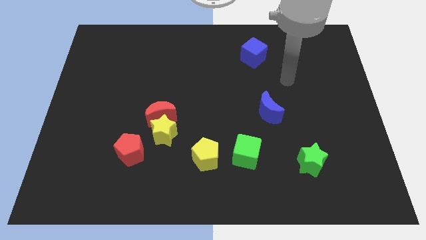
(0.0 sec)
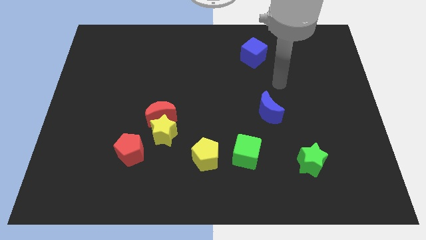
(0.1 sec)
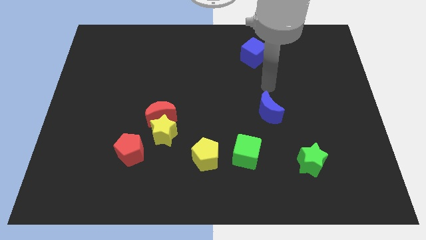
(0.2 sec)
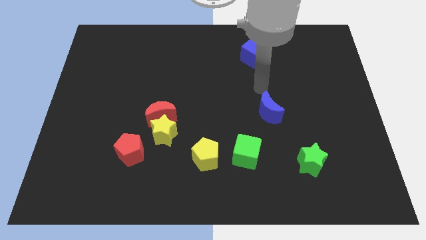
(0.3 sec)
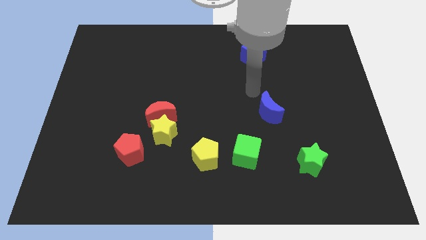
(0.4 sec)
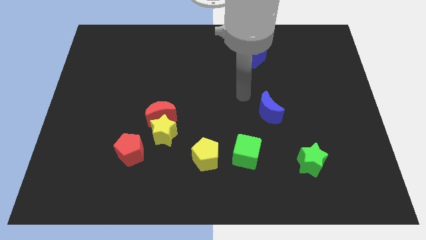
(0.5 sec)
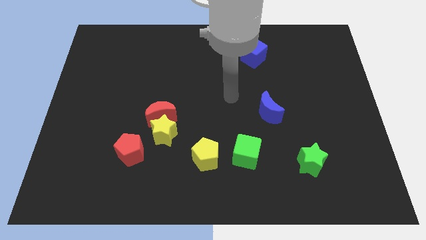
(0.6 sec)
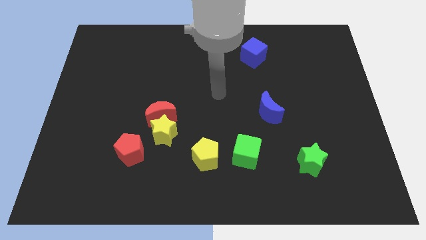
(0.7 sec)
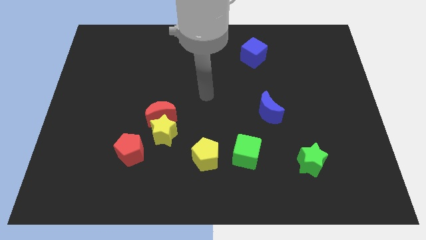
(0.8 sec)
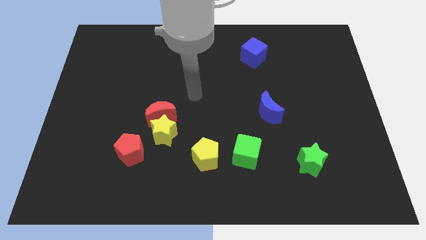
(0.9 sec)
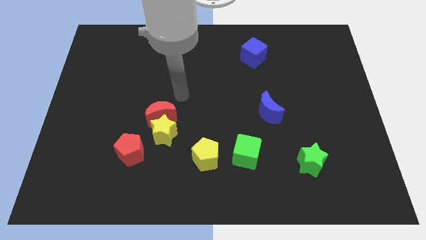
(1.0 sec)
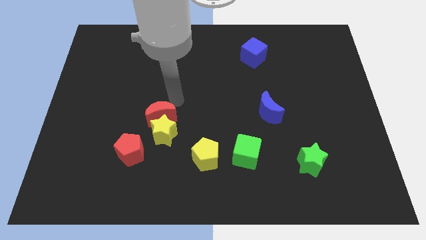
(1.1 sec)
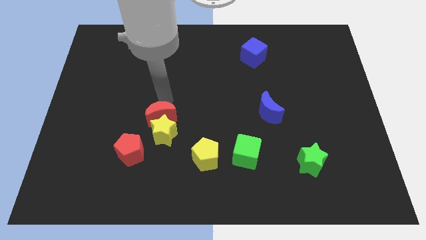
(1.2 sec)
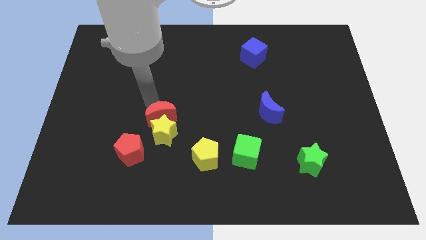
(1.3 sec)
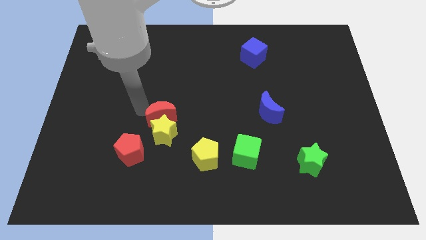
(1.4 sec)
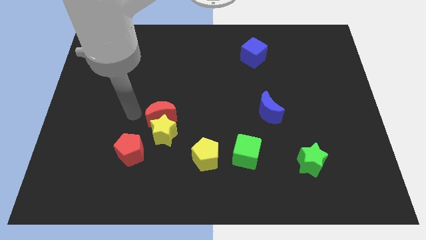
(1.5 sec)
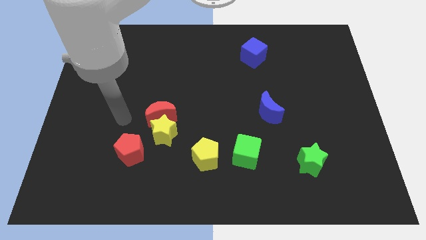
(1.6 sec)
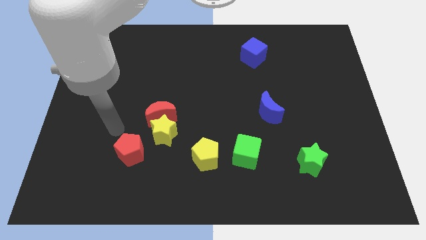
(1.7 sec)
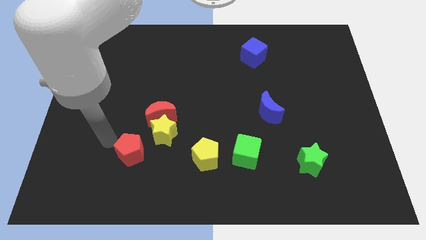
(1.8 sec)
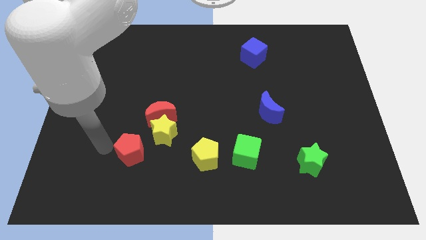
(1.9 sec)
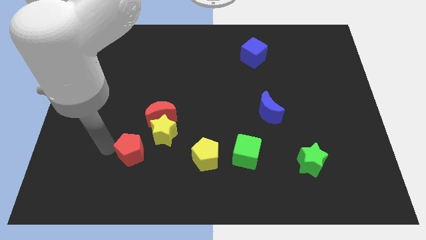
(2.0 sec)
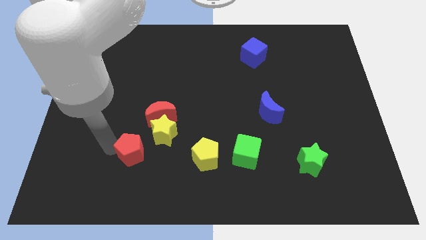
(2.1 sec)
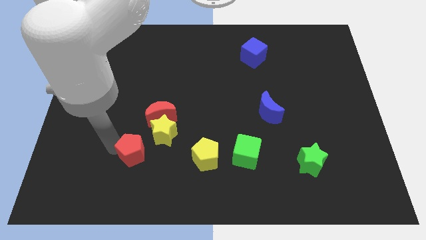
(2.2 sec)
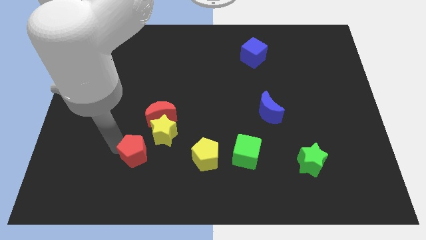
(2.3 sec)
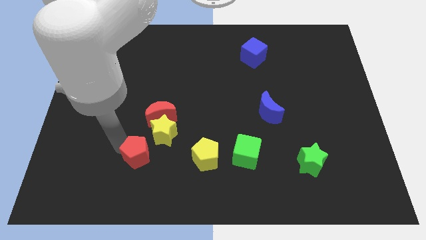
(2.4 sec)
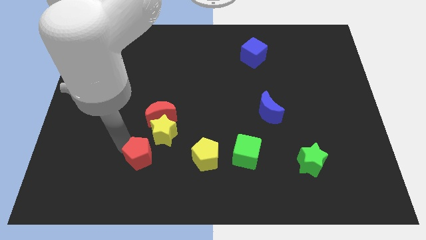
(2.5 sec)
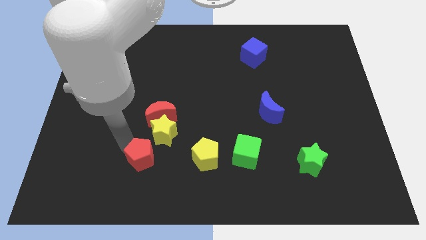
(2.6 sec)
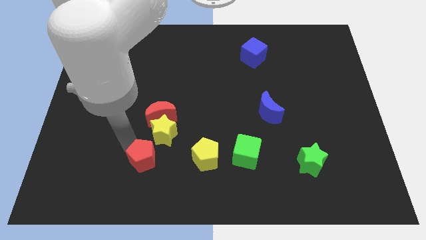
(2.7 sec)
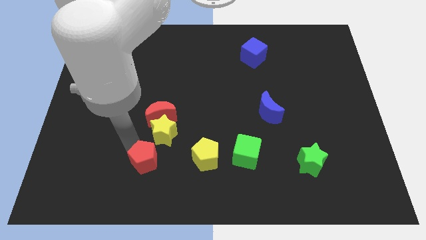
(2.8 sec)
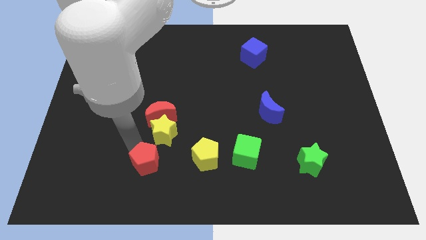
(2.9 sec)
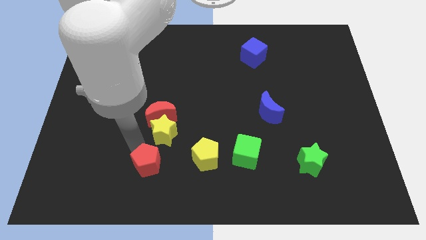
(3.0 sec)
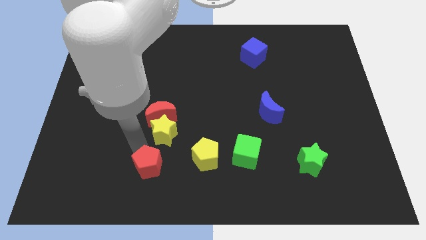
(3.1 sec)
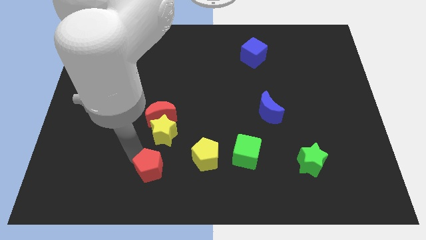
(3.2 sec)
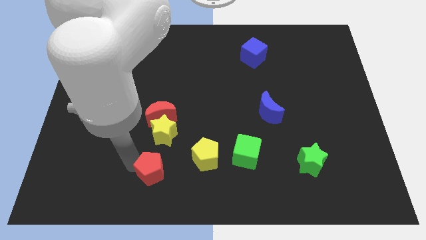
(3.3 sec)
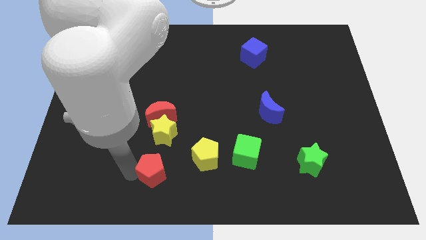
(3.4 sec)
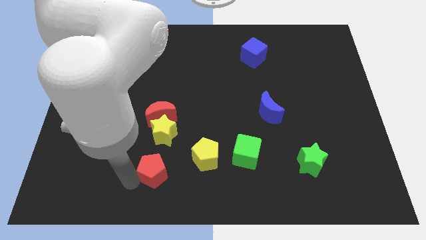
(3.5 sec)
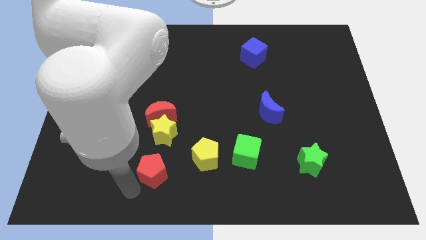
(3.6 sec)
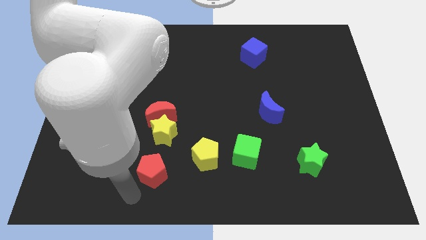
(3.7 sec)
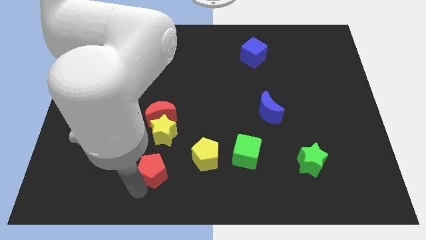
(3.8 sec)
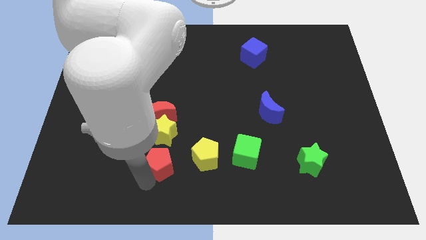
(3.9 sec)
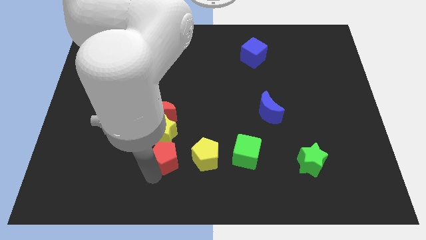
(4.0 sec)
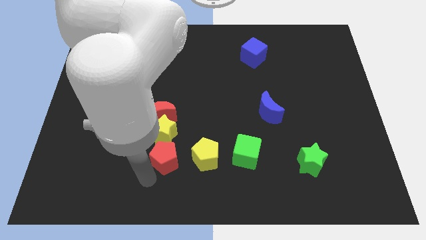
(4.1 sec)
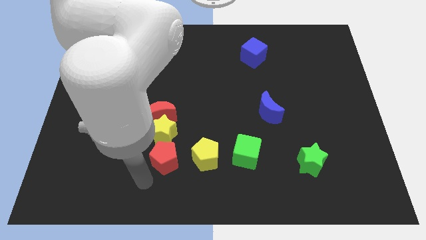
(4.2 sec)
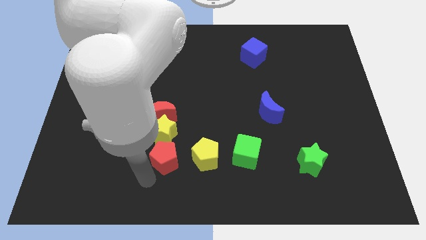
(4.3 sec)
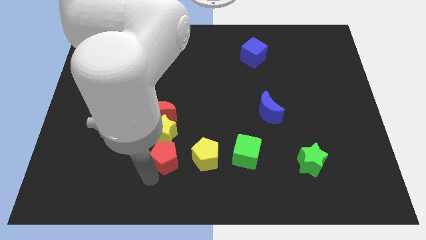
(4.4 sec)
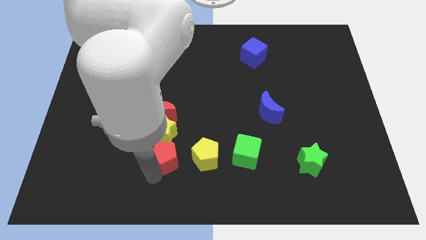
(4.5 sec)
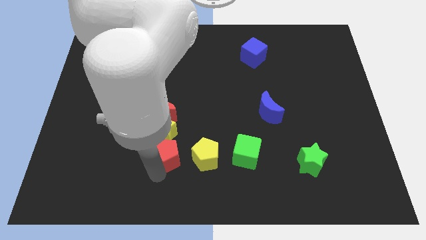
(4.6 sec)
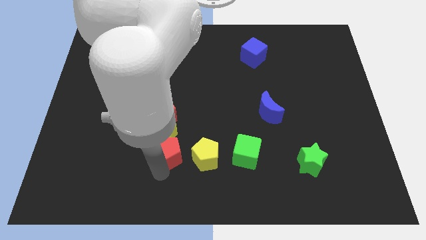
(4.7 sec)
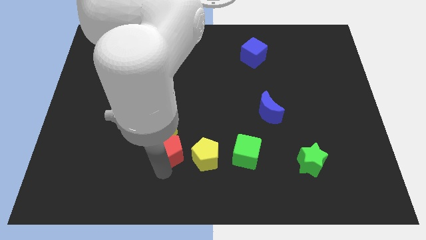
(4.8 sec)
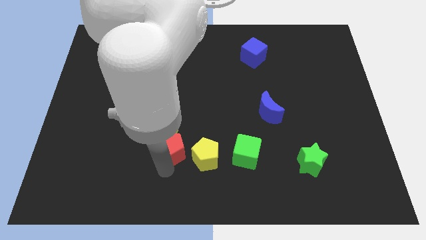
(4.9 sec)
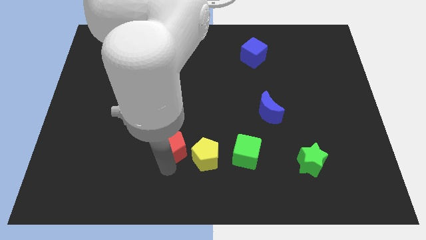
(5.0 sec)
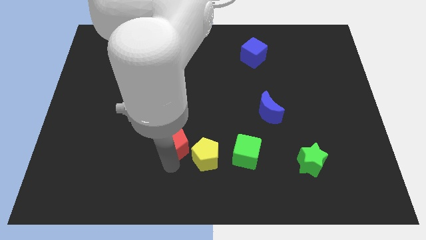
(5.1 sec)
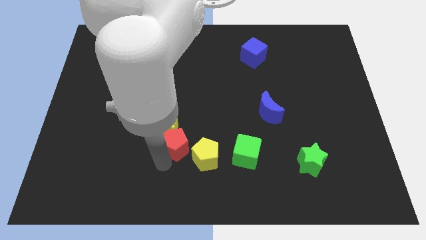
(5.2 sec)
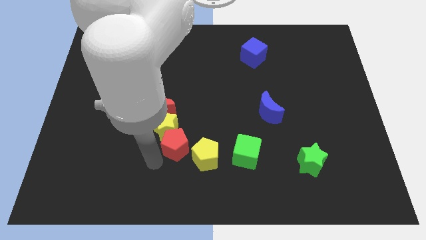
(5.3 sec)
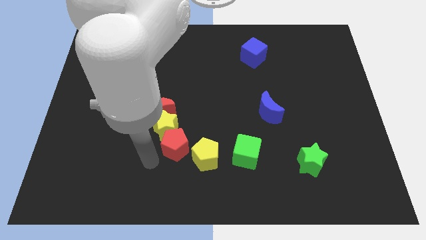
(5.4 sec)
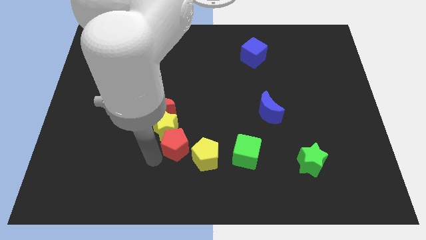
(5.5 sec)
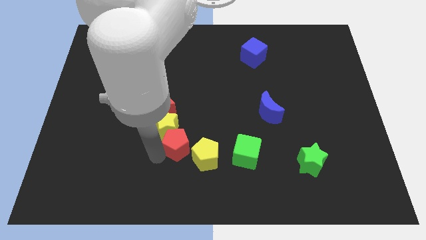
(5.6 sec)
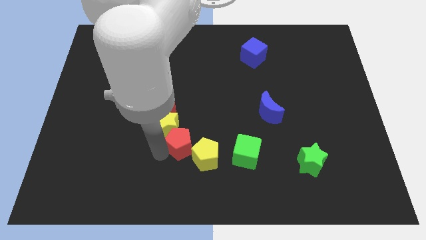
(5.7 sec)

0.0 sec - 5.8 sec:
move the red pentagon right of the yellow star

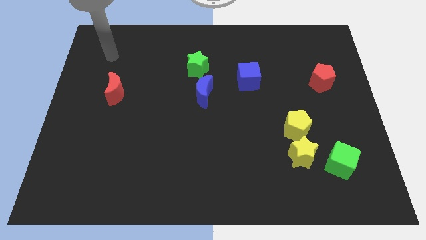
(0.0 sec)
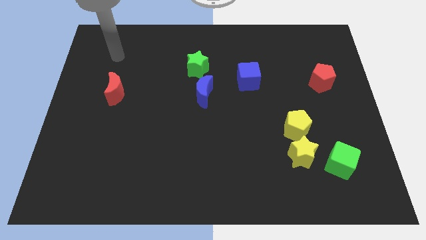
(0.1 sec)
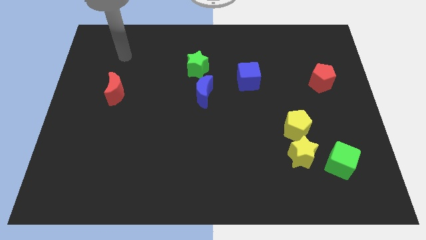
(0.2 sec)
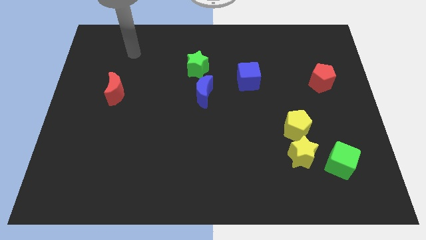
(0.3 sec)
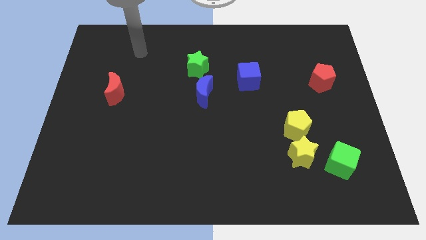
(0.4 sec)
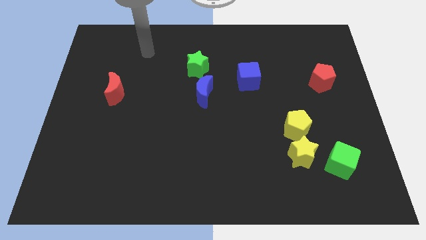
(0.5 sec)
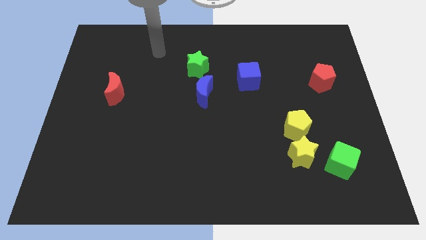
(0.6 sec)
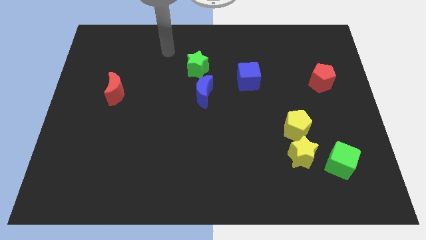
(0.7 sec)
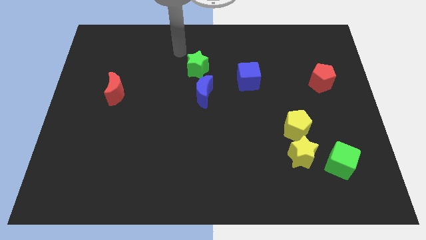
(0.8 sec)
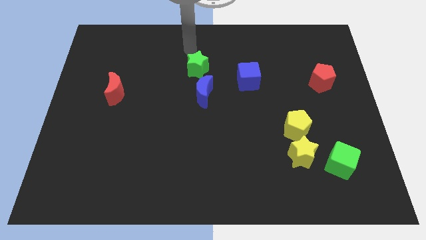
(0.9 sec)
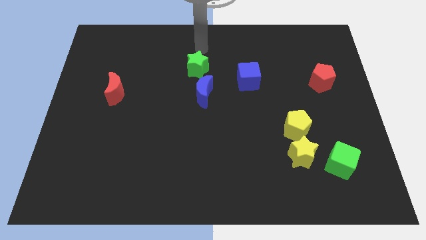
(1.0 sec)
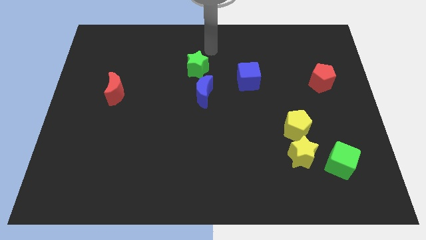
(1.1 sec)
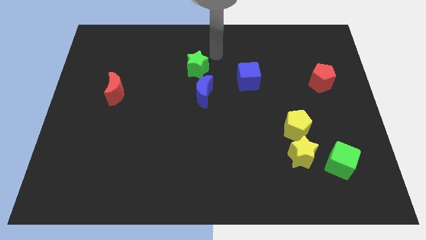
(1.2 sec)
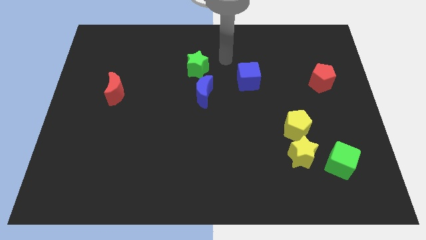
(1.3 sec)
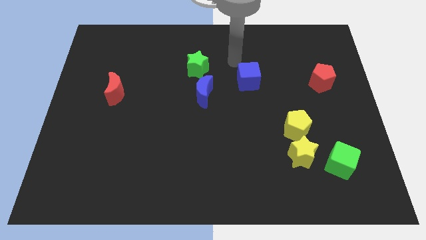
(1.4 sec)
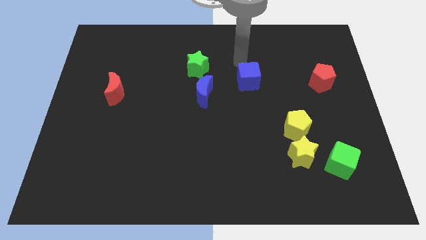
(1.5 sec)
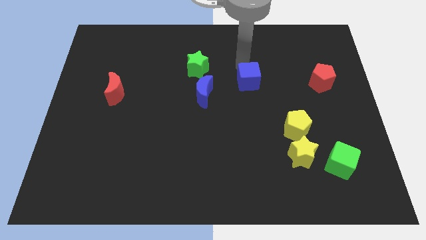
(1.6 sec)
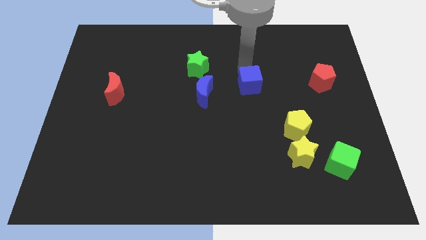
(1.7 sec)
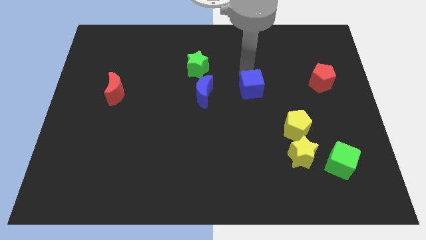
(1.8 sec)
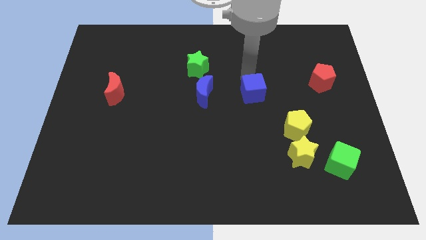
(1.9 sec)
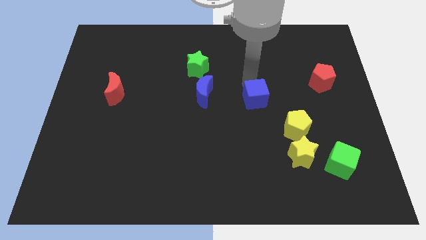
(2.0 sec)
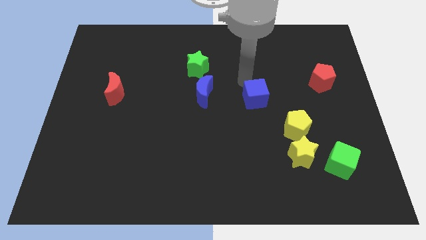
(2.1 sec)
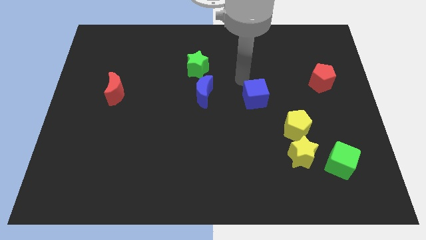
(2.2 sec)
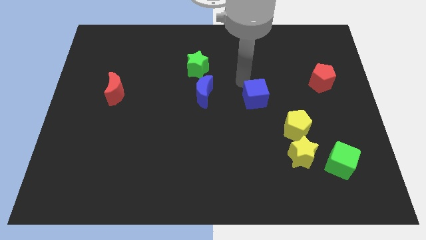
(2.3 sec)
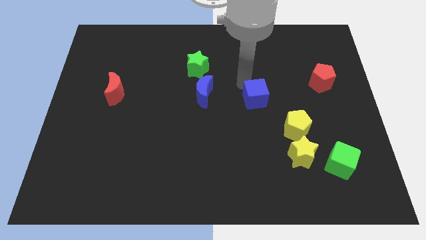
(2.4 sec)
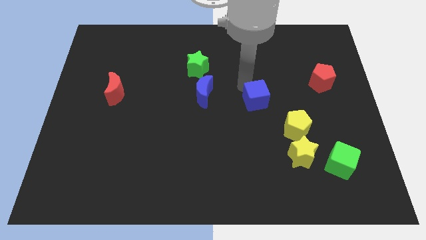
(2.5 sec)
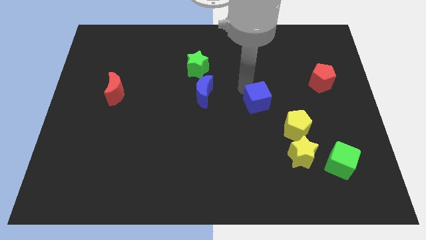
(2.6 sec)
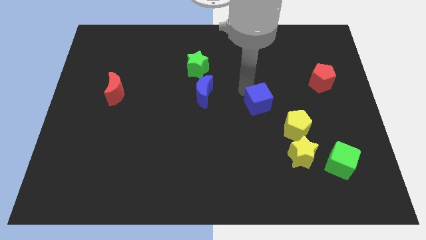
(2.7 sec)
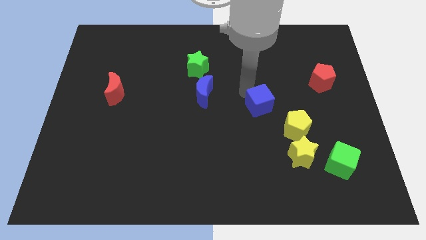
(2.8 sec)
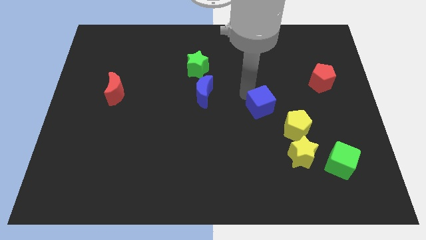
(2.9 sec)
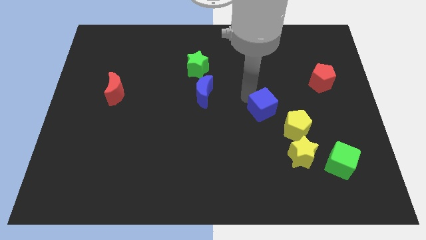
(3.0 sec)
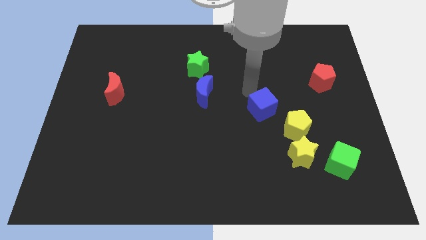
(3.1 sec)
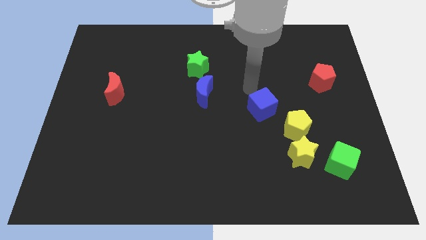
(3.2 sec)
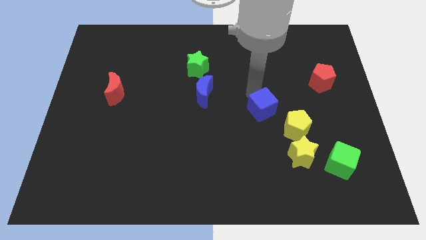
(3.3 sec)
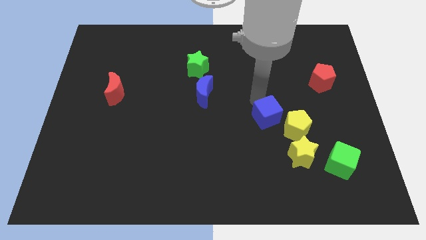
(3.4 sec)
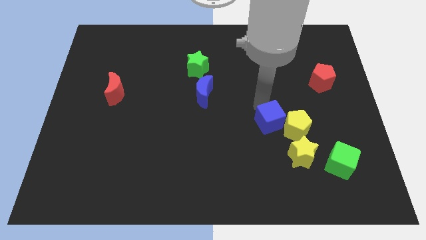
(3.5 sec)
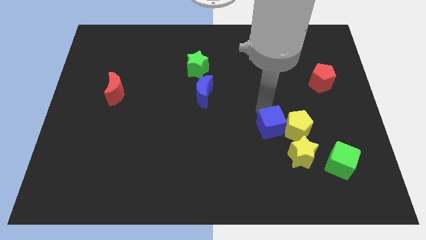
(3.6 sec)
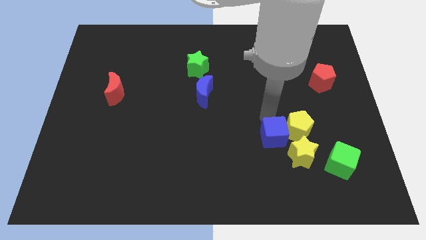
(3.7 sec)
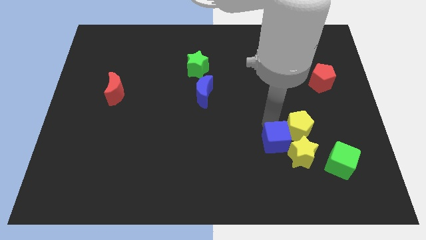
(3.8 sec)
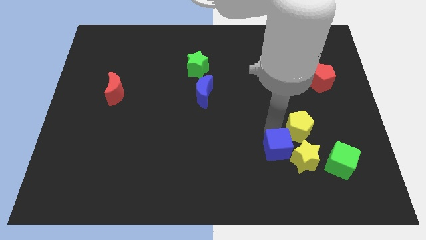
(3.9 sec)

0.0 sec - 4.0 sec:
slide the blue cube below the yellow pentagon
